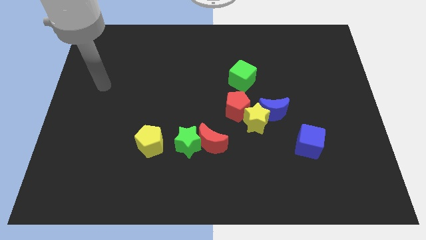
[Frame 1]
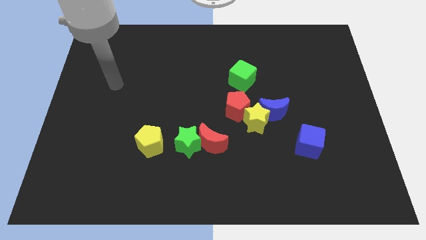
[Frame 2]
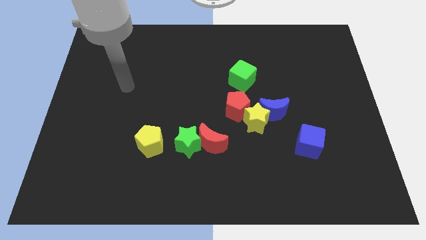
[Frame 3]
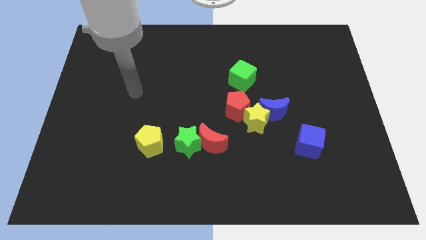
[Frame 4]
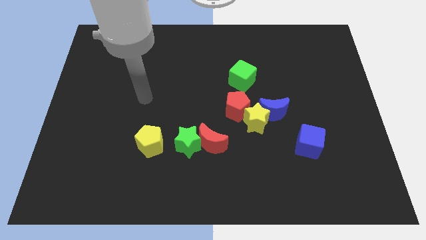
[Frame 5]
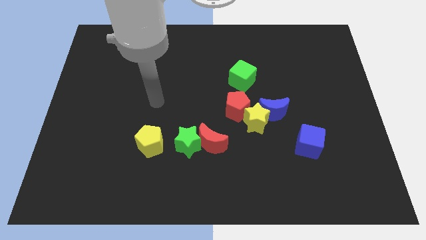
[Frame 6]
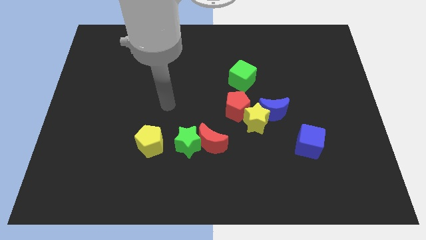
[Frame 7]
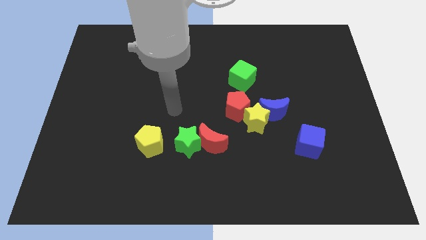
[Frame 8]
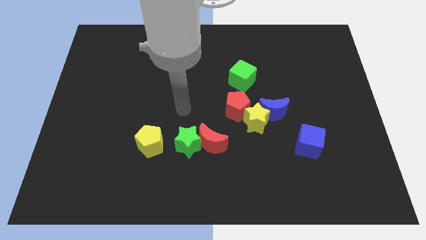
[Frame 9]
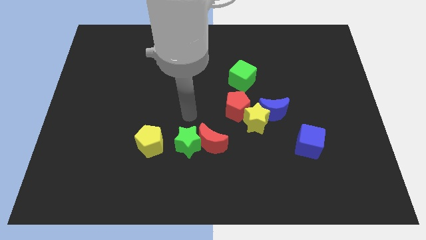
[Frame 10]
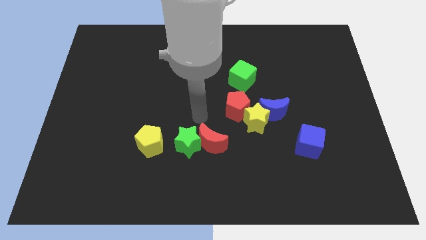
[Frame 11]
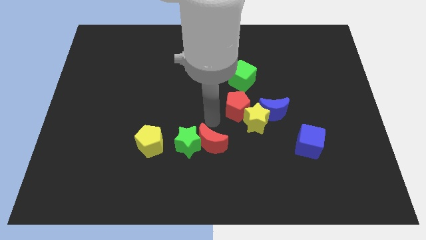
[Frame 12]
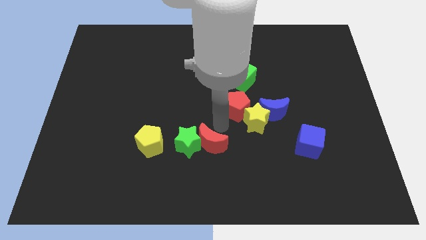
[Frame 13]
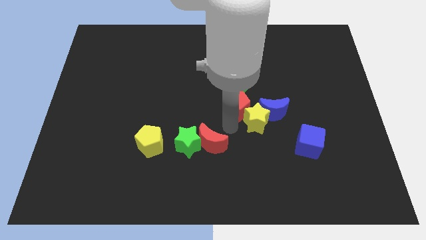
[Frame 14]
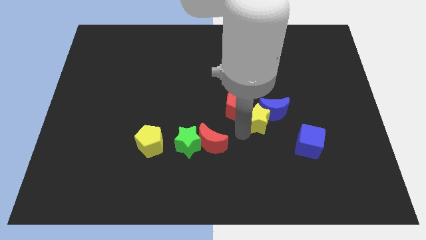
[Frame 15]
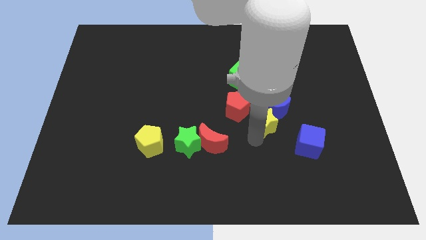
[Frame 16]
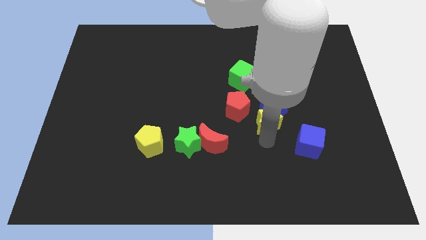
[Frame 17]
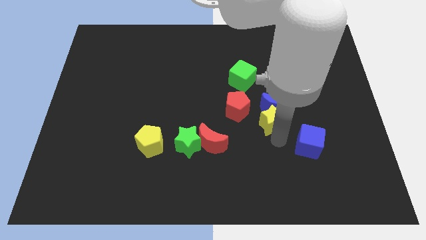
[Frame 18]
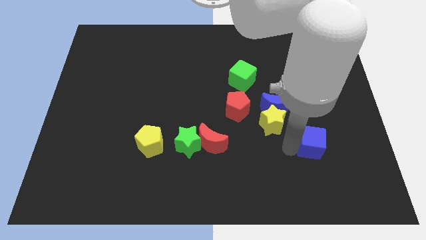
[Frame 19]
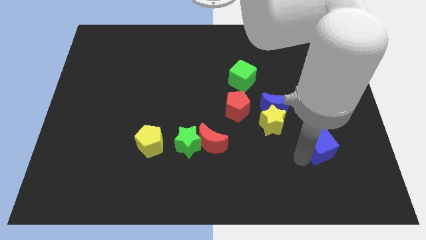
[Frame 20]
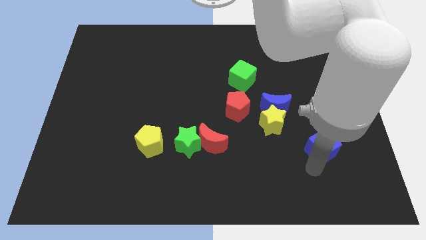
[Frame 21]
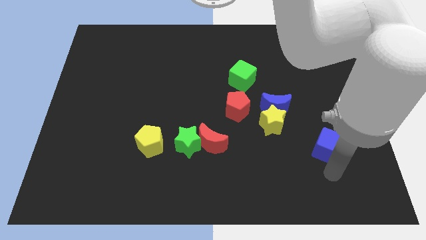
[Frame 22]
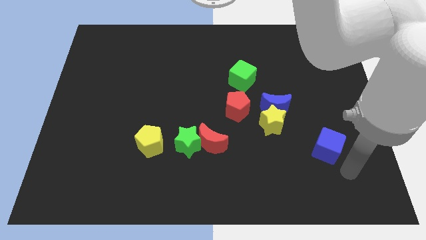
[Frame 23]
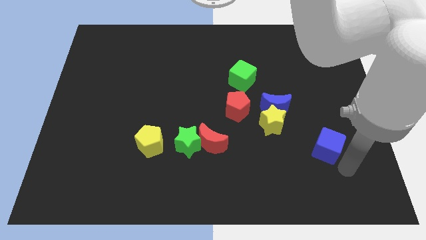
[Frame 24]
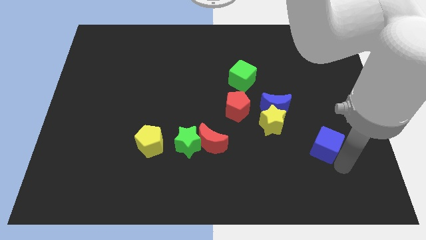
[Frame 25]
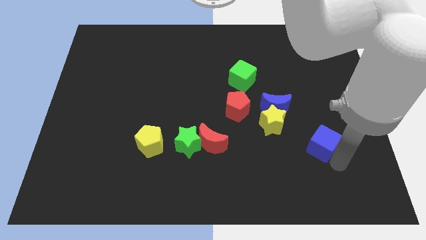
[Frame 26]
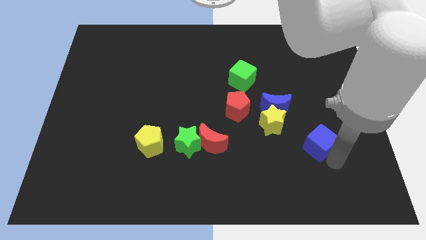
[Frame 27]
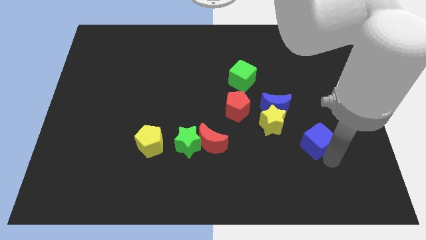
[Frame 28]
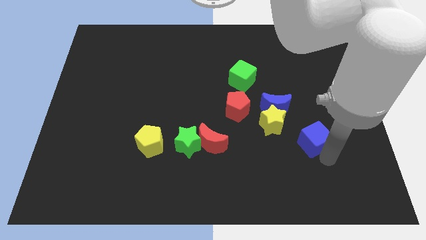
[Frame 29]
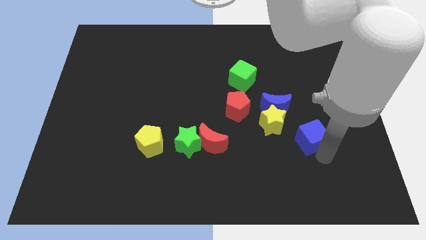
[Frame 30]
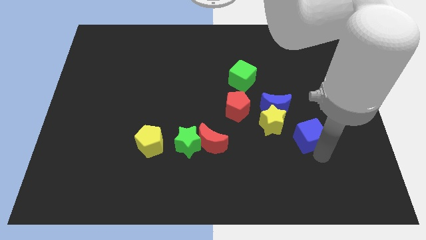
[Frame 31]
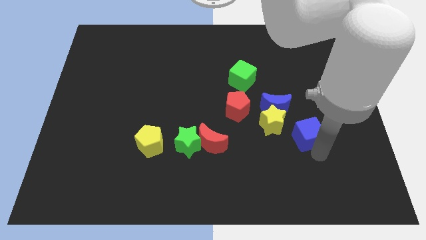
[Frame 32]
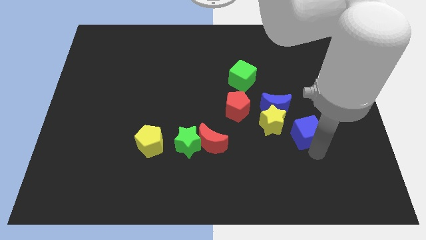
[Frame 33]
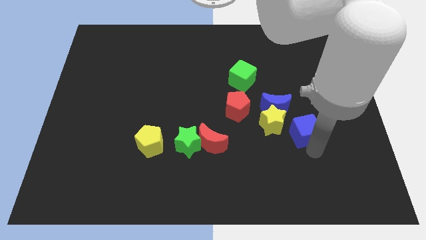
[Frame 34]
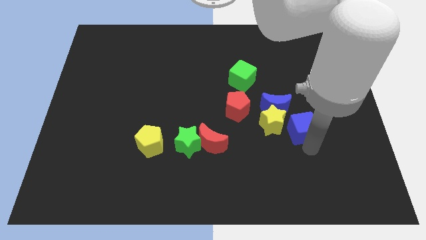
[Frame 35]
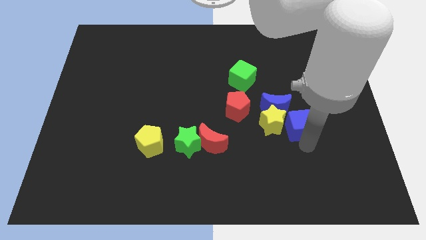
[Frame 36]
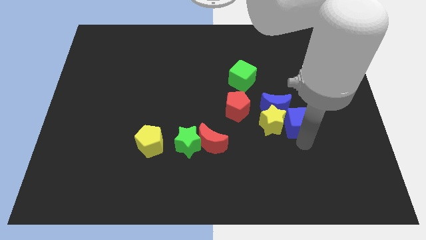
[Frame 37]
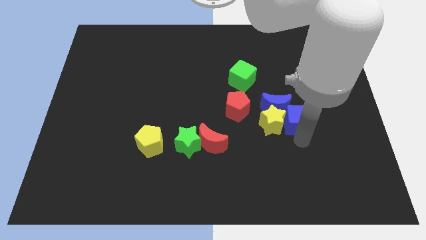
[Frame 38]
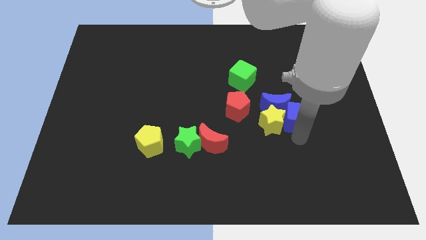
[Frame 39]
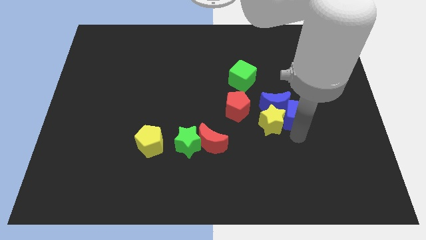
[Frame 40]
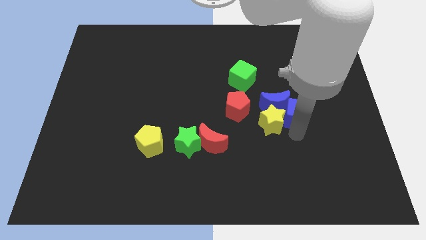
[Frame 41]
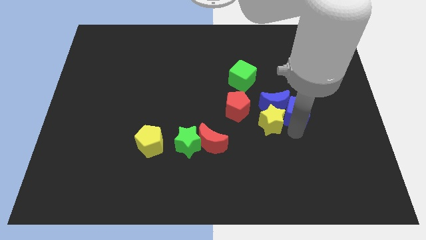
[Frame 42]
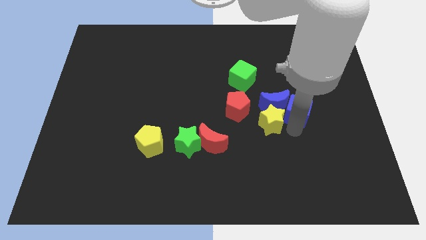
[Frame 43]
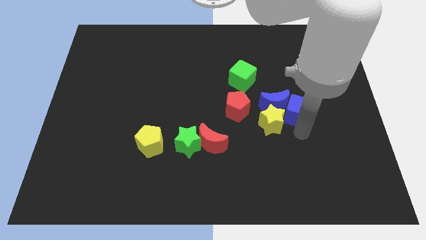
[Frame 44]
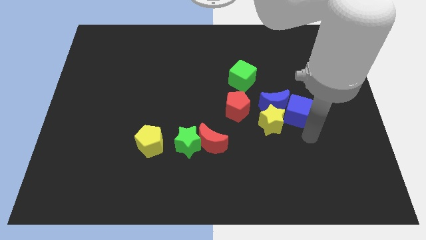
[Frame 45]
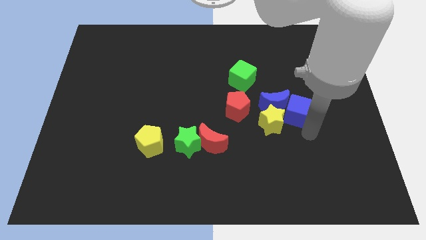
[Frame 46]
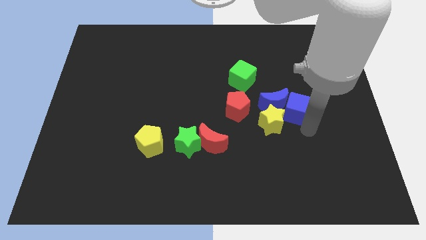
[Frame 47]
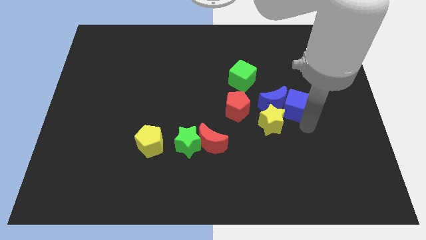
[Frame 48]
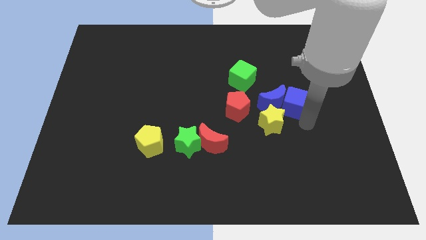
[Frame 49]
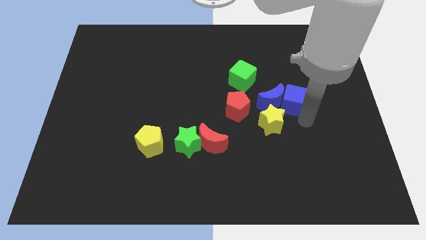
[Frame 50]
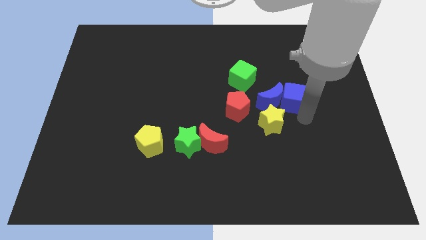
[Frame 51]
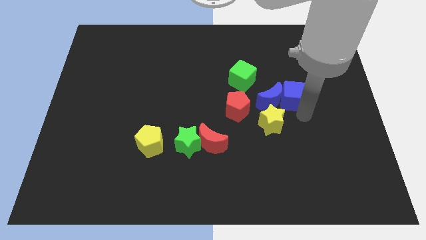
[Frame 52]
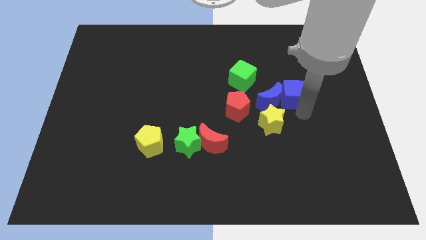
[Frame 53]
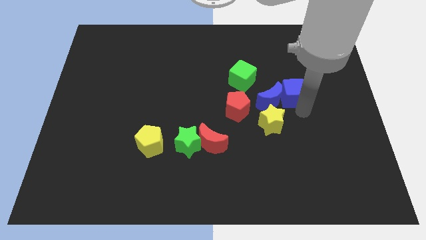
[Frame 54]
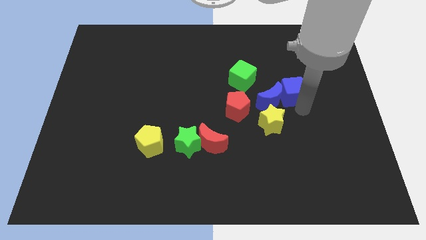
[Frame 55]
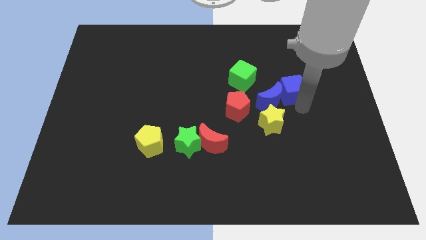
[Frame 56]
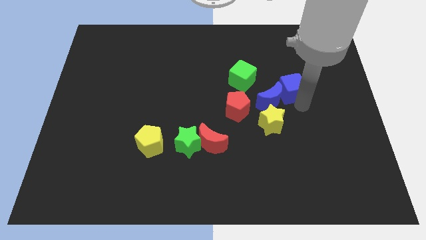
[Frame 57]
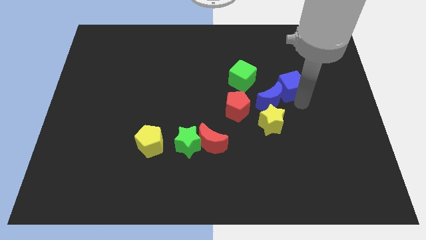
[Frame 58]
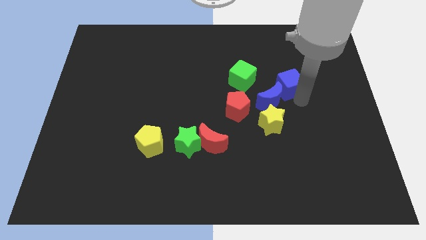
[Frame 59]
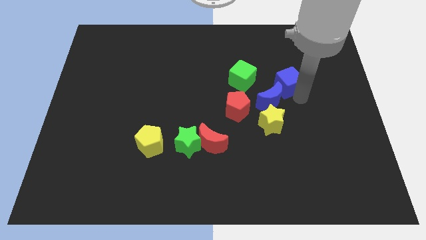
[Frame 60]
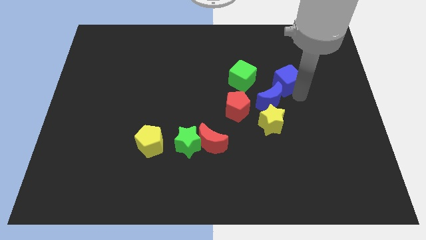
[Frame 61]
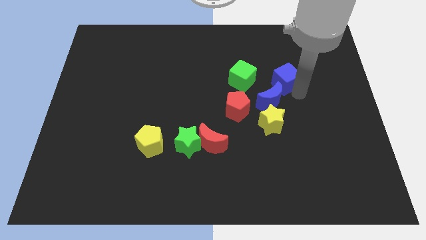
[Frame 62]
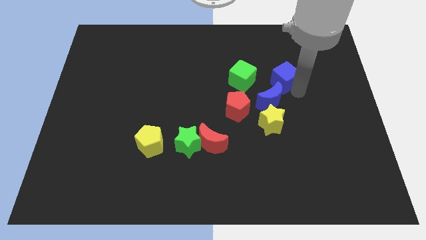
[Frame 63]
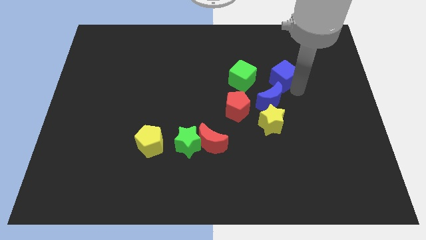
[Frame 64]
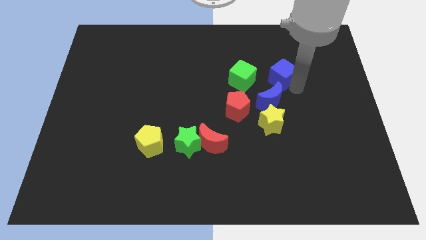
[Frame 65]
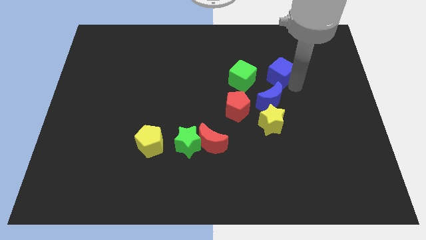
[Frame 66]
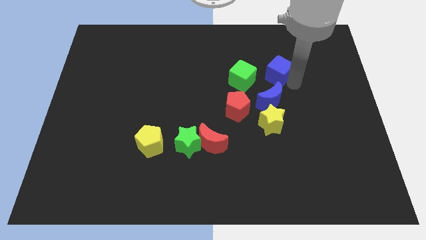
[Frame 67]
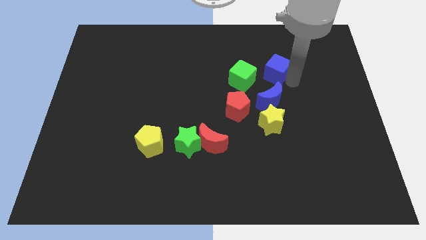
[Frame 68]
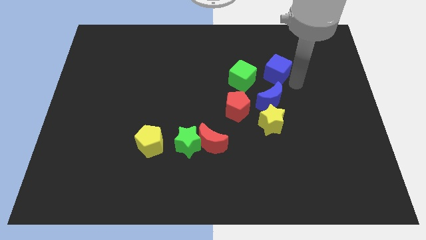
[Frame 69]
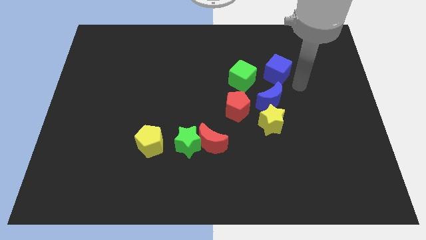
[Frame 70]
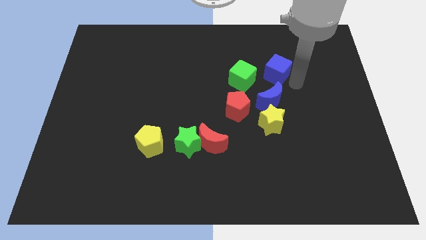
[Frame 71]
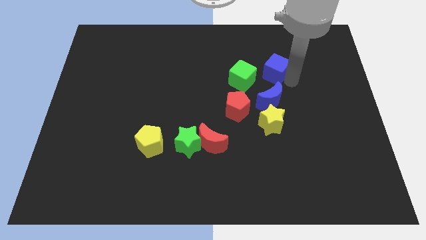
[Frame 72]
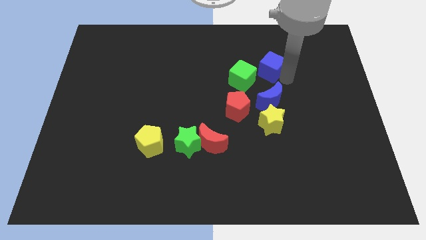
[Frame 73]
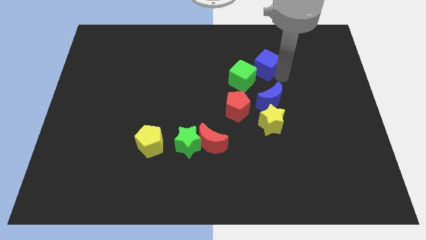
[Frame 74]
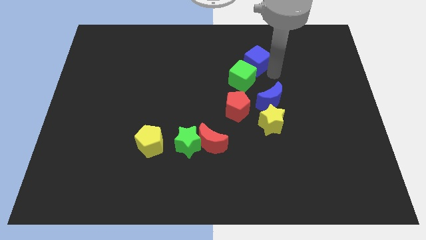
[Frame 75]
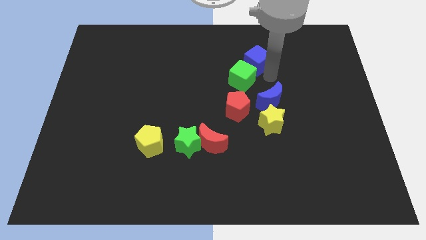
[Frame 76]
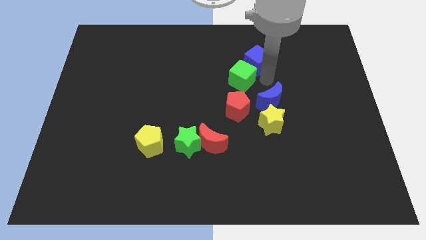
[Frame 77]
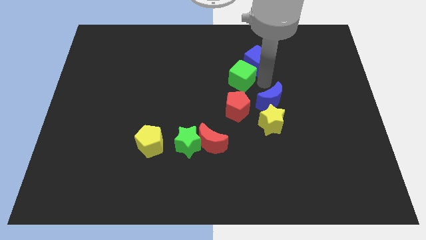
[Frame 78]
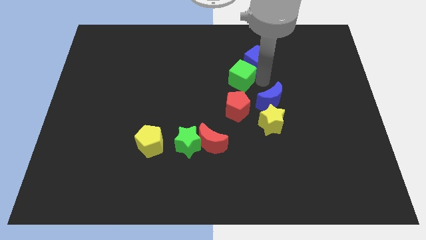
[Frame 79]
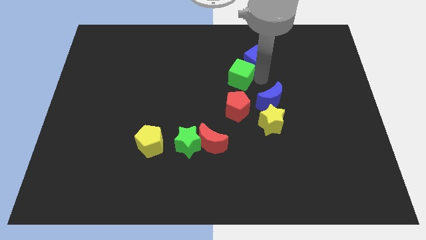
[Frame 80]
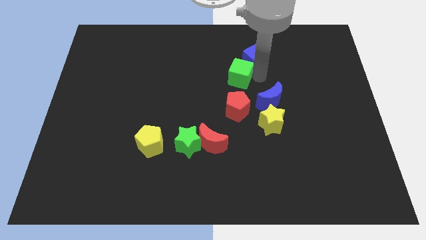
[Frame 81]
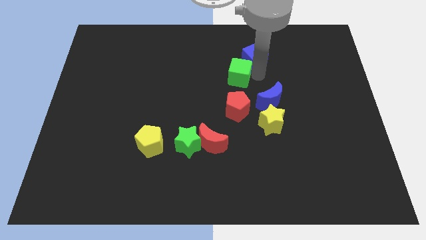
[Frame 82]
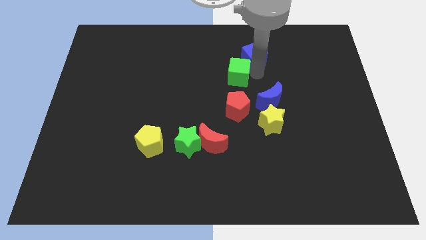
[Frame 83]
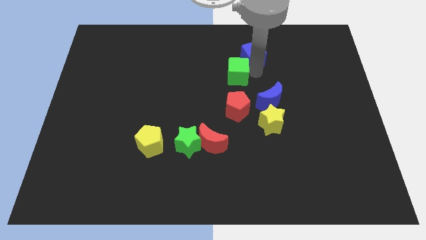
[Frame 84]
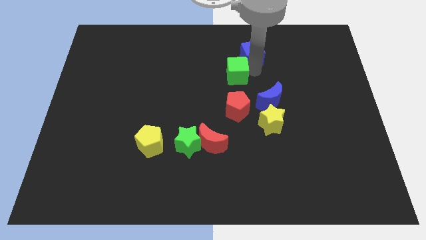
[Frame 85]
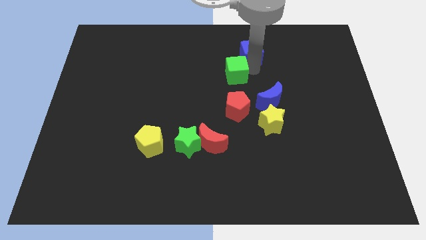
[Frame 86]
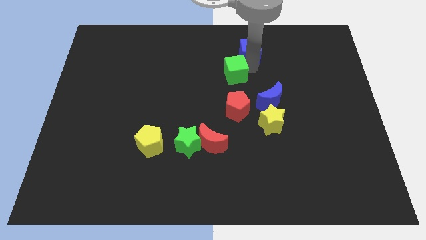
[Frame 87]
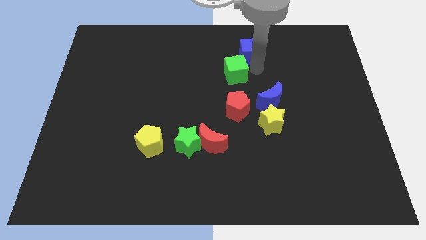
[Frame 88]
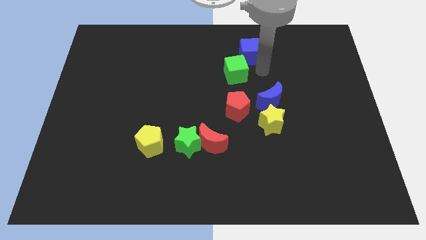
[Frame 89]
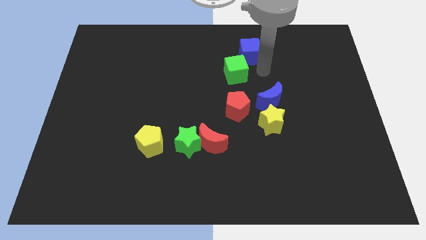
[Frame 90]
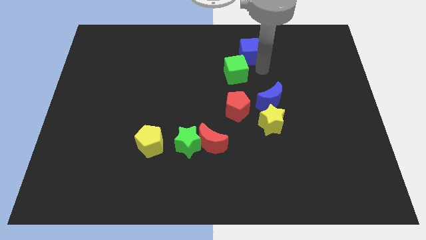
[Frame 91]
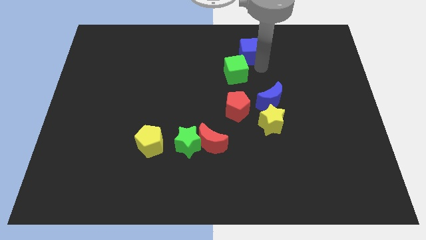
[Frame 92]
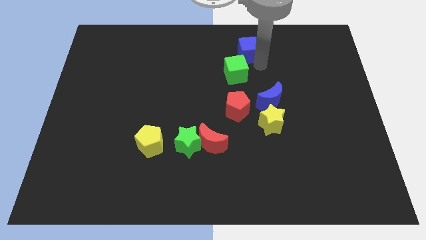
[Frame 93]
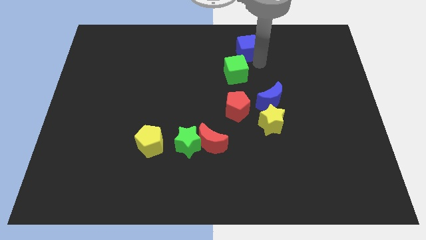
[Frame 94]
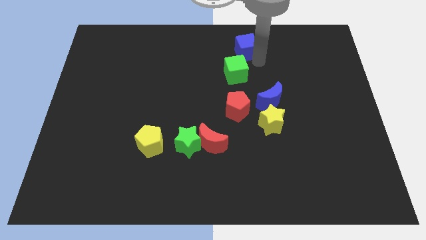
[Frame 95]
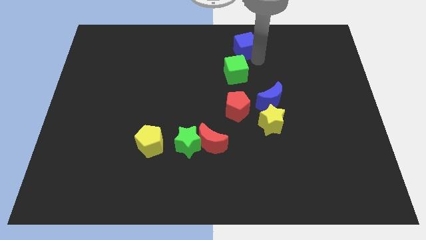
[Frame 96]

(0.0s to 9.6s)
move the blue cube to the towards your base
